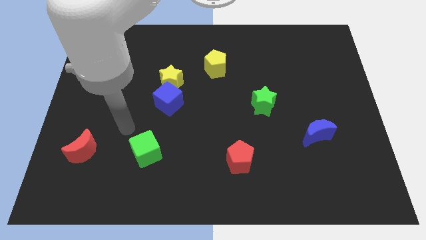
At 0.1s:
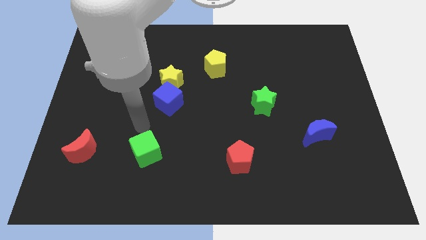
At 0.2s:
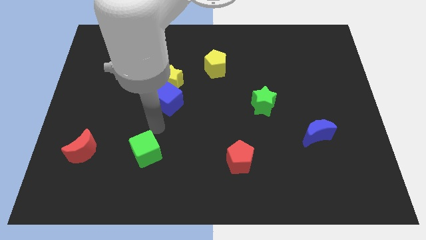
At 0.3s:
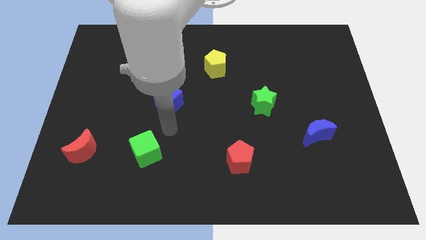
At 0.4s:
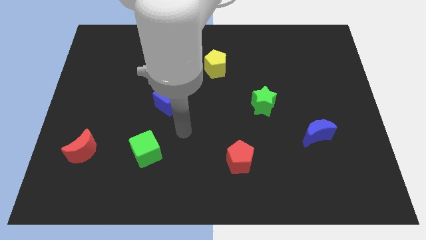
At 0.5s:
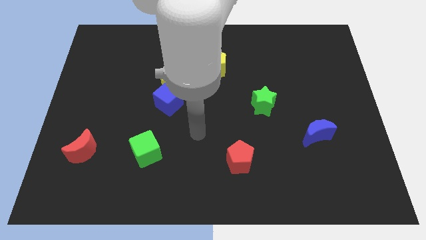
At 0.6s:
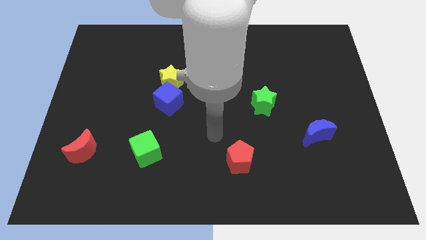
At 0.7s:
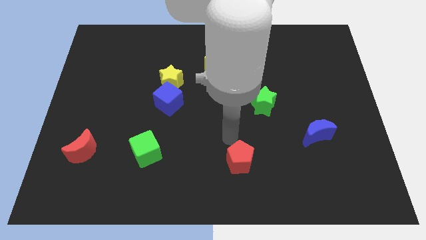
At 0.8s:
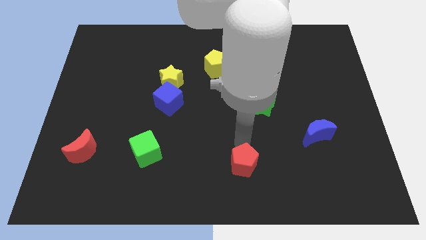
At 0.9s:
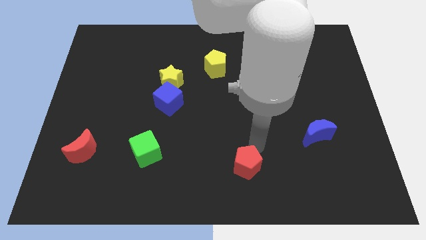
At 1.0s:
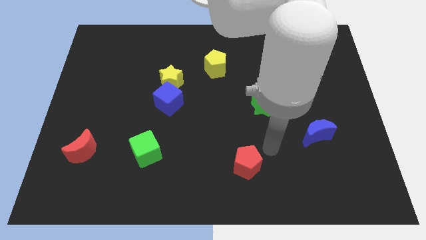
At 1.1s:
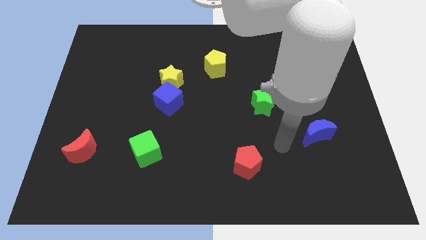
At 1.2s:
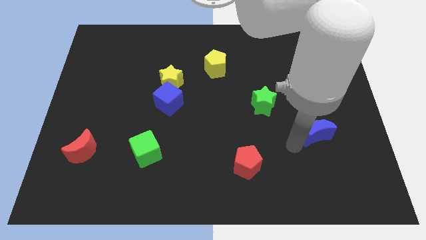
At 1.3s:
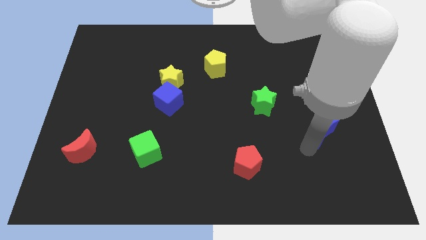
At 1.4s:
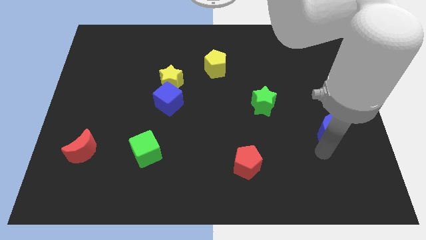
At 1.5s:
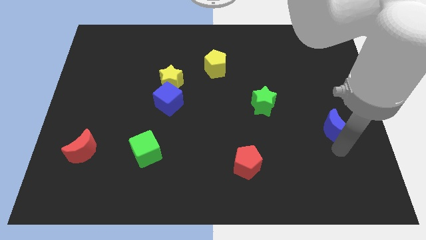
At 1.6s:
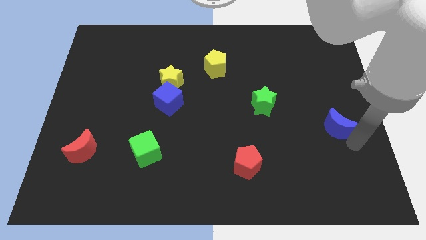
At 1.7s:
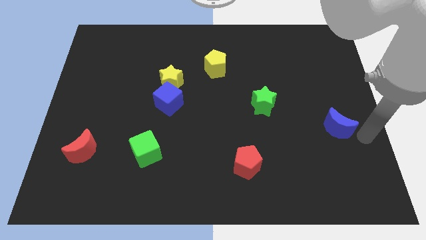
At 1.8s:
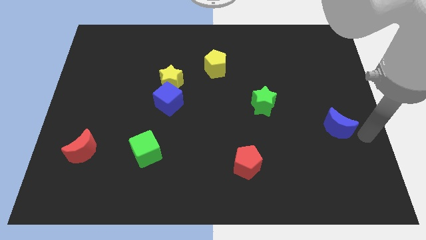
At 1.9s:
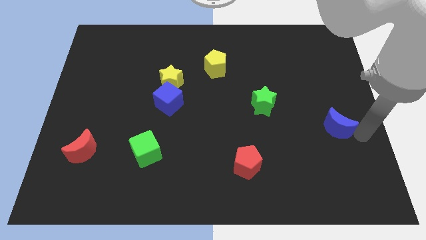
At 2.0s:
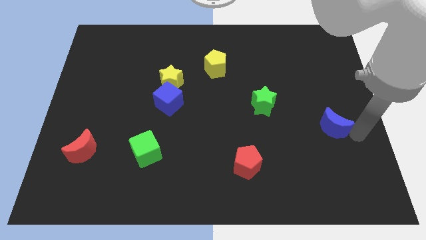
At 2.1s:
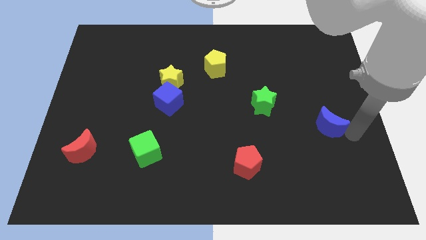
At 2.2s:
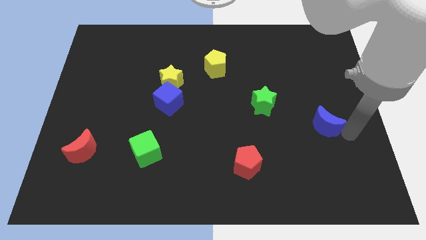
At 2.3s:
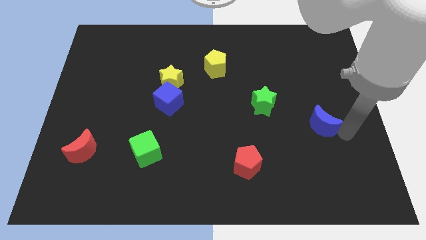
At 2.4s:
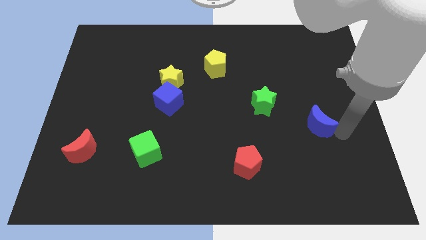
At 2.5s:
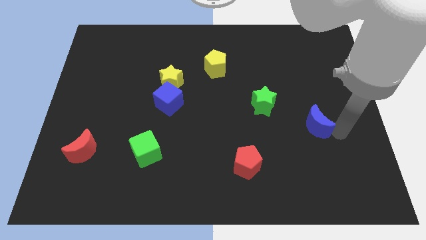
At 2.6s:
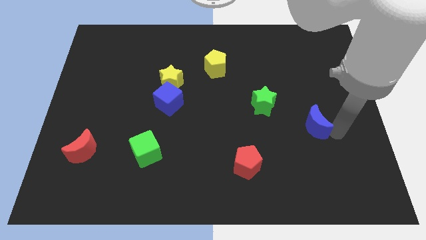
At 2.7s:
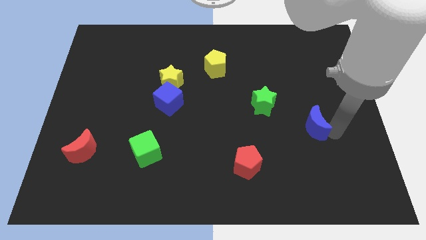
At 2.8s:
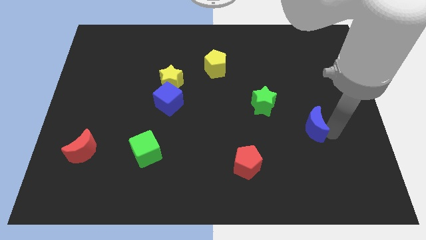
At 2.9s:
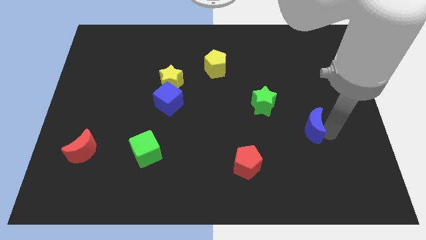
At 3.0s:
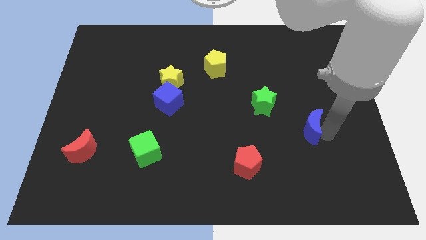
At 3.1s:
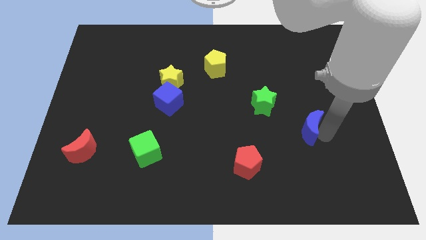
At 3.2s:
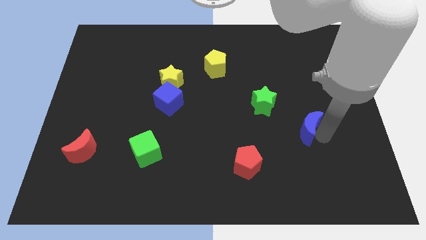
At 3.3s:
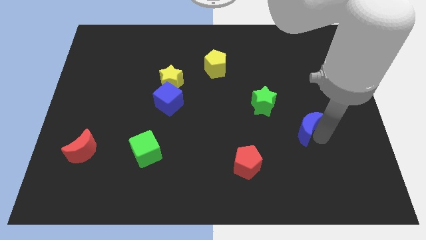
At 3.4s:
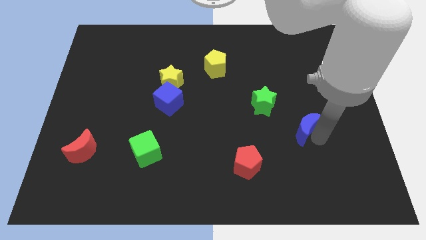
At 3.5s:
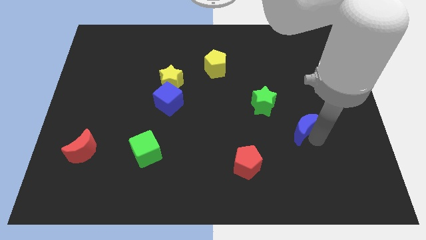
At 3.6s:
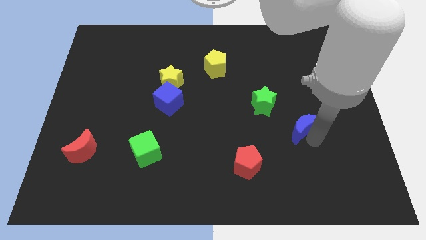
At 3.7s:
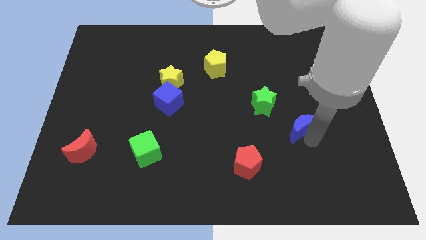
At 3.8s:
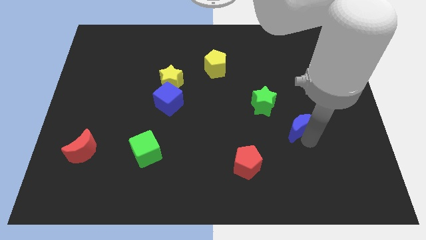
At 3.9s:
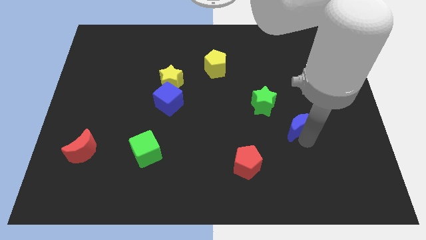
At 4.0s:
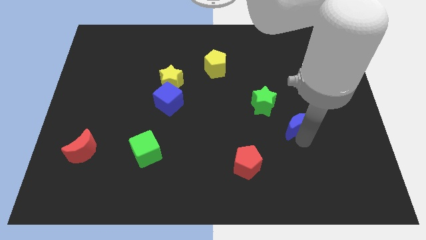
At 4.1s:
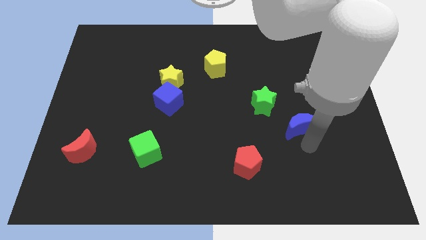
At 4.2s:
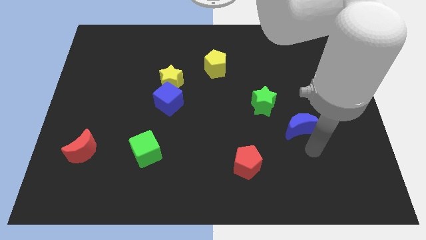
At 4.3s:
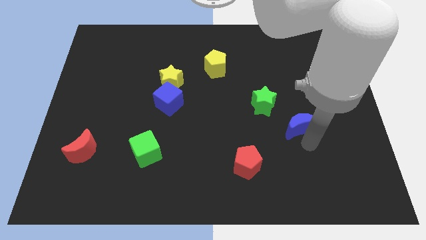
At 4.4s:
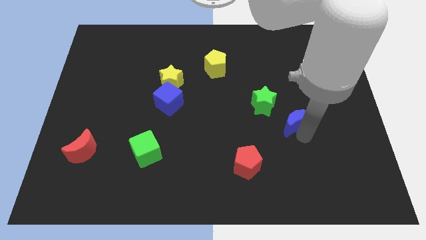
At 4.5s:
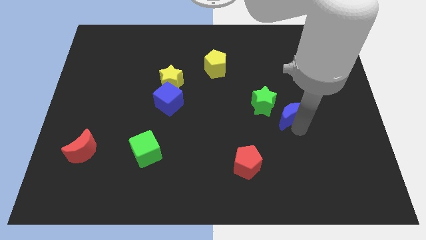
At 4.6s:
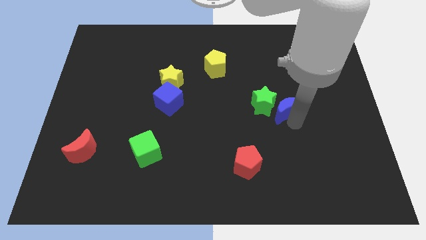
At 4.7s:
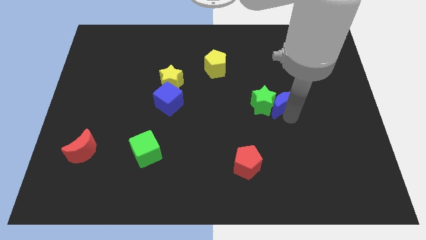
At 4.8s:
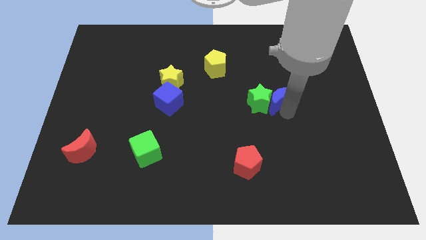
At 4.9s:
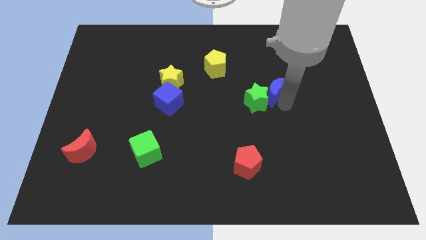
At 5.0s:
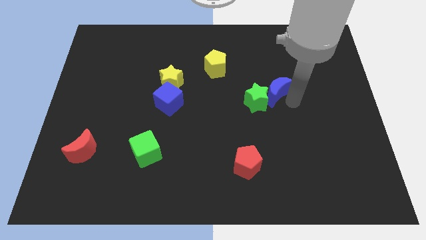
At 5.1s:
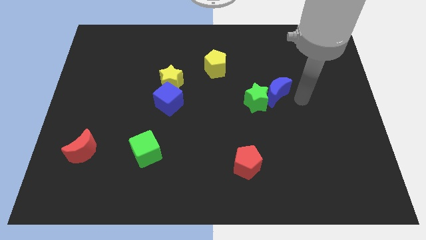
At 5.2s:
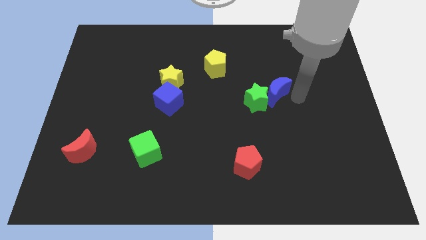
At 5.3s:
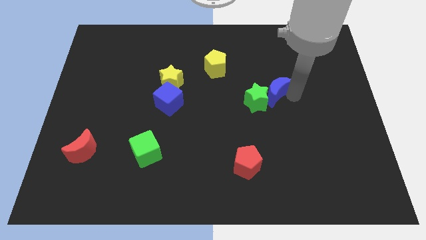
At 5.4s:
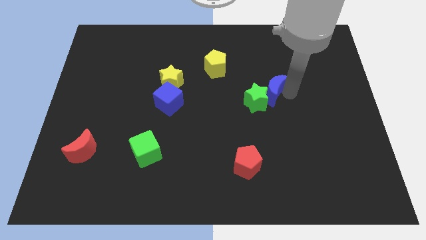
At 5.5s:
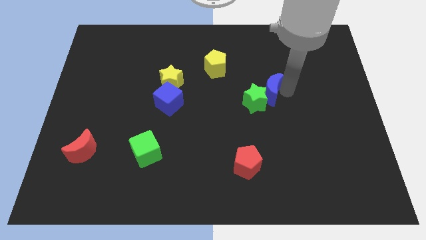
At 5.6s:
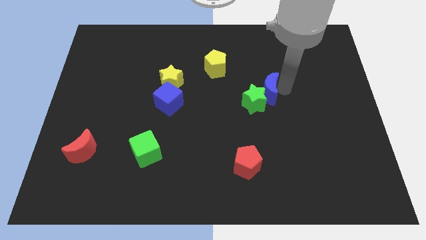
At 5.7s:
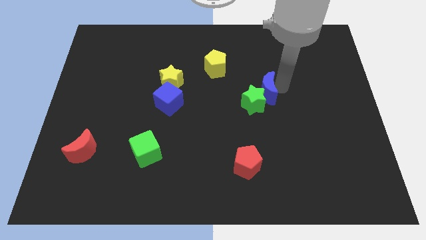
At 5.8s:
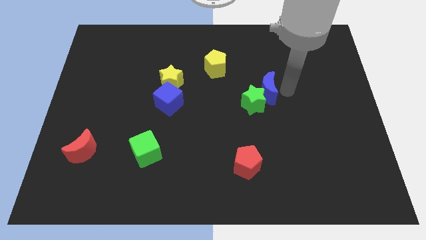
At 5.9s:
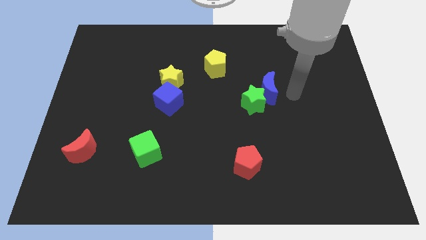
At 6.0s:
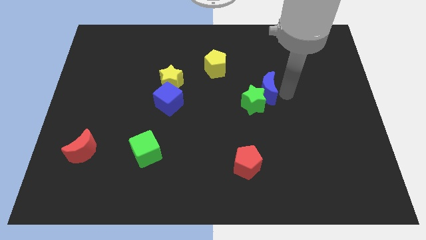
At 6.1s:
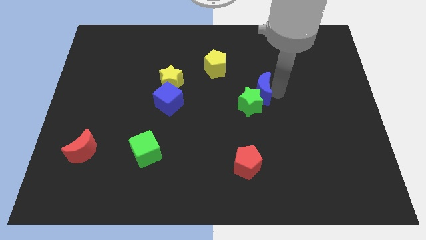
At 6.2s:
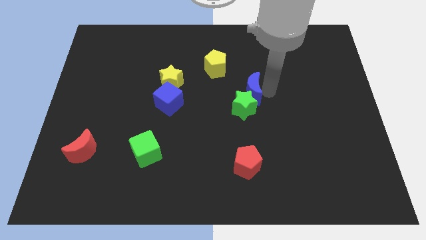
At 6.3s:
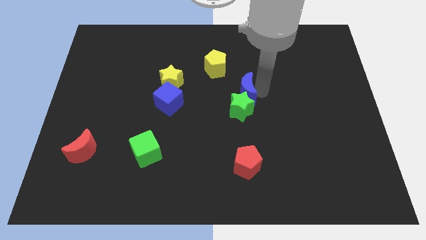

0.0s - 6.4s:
push the blue moon to the top left side of the green star

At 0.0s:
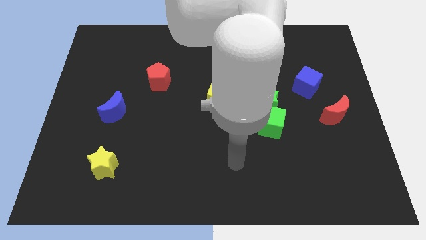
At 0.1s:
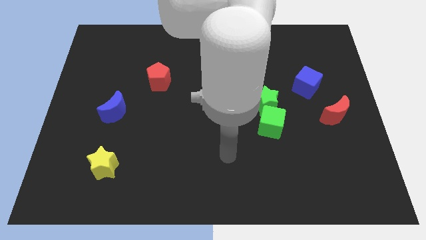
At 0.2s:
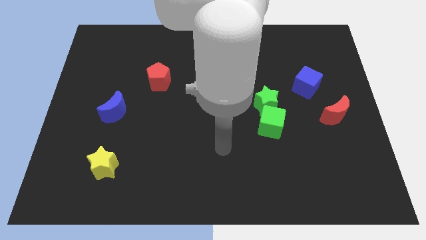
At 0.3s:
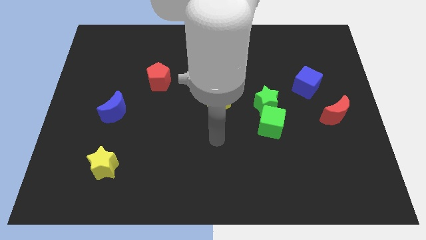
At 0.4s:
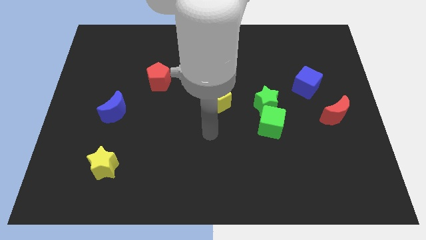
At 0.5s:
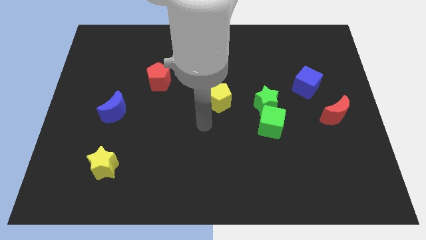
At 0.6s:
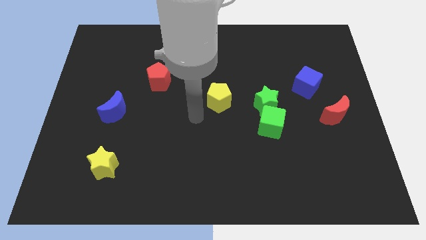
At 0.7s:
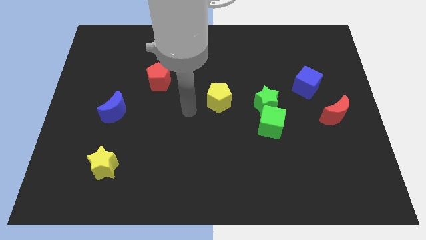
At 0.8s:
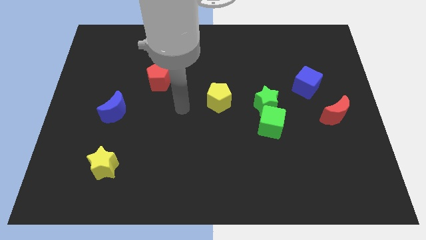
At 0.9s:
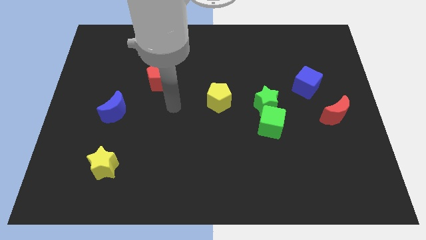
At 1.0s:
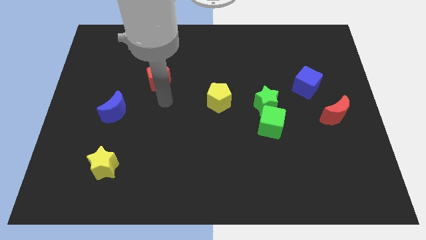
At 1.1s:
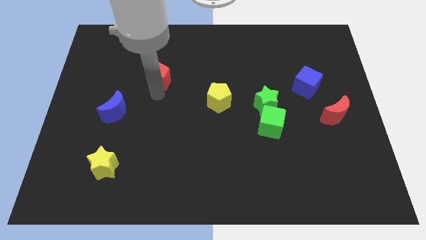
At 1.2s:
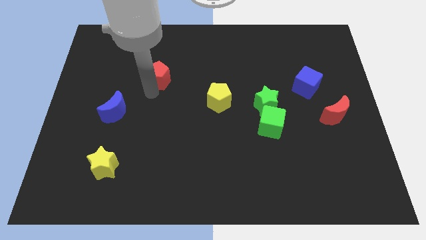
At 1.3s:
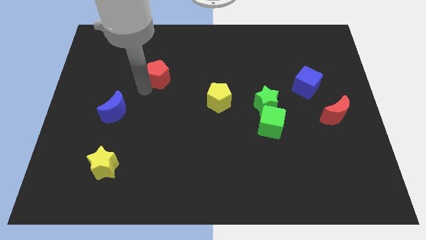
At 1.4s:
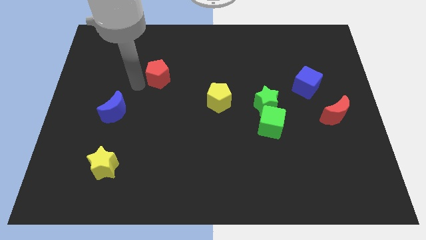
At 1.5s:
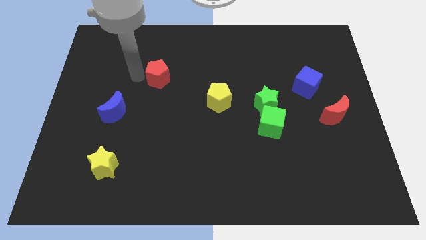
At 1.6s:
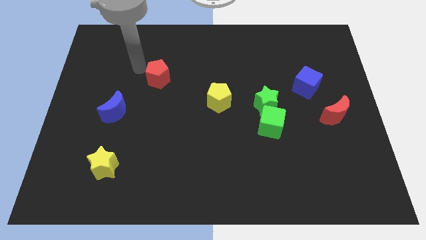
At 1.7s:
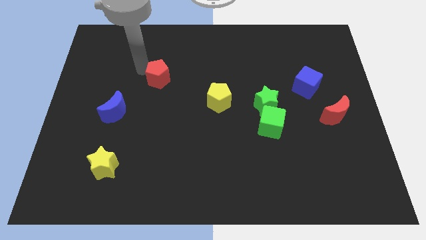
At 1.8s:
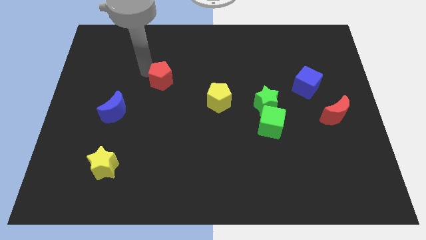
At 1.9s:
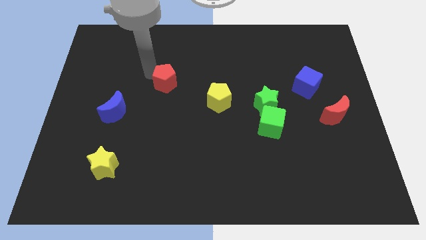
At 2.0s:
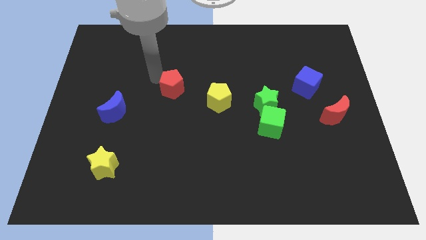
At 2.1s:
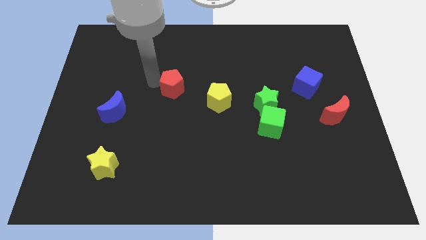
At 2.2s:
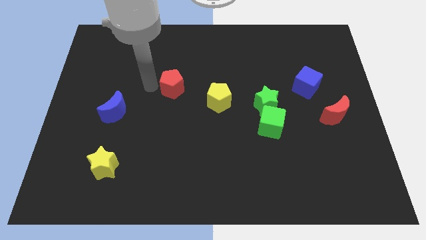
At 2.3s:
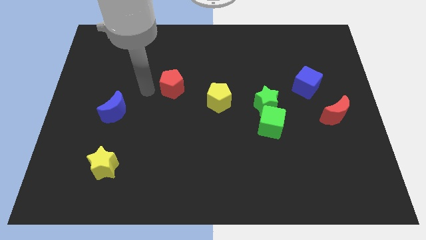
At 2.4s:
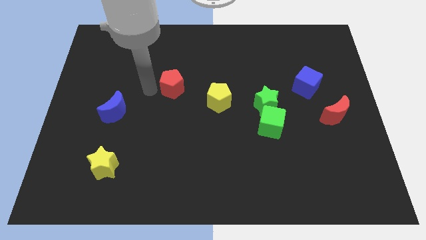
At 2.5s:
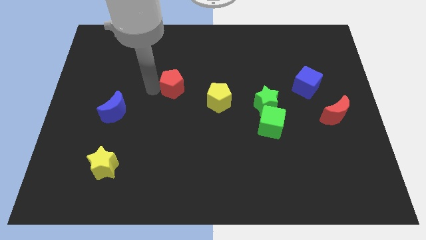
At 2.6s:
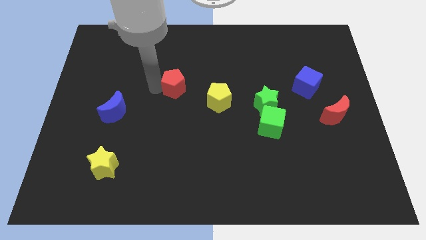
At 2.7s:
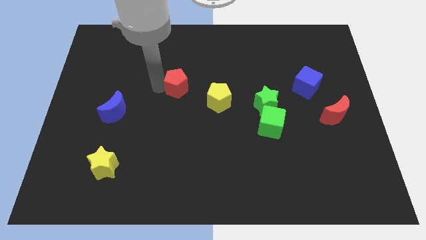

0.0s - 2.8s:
push the red pentagon to the top left of the yellow pentagon
